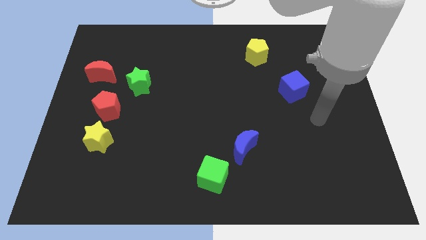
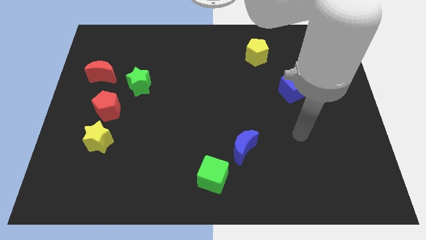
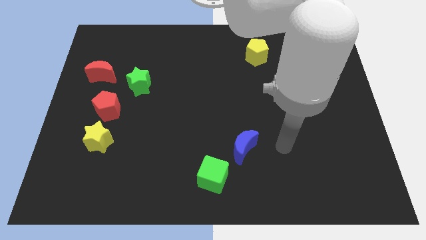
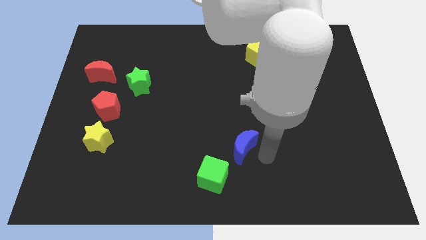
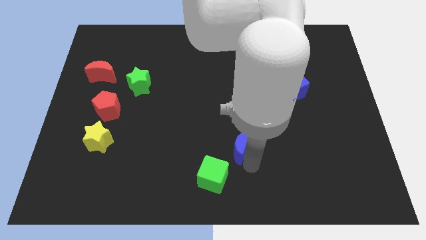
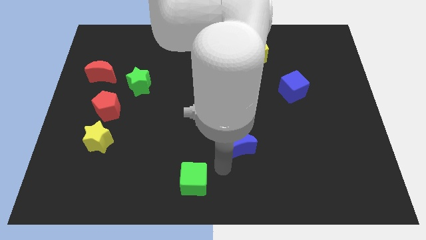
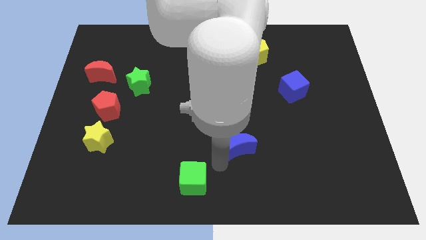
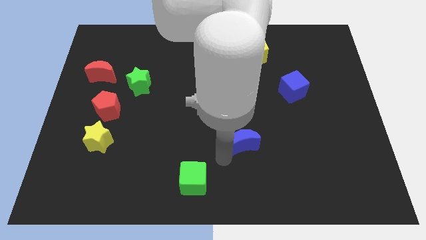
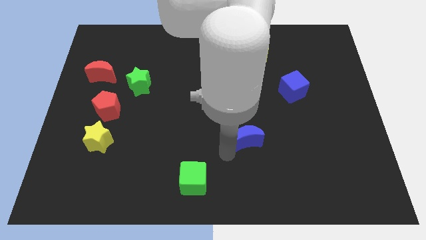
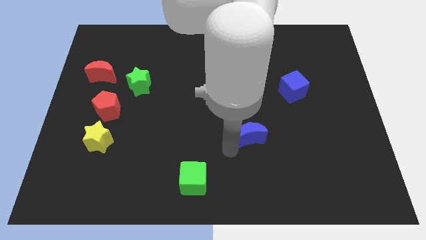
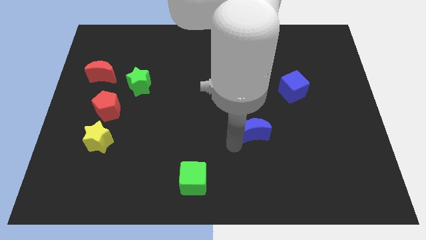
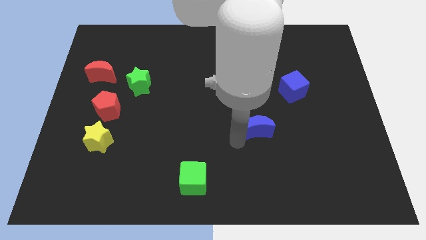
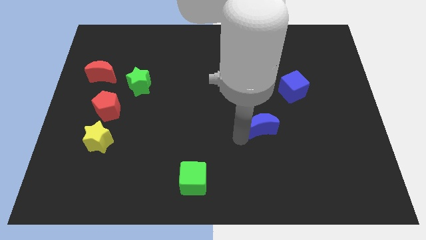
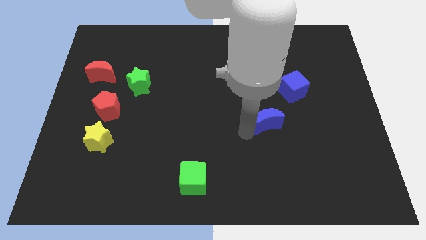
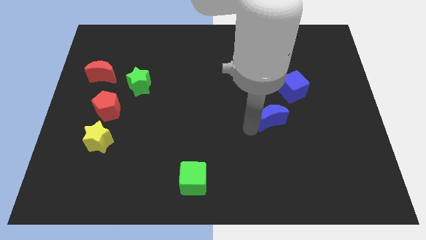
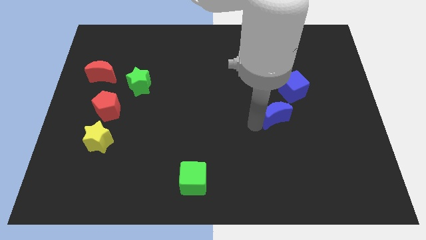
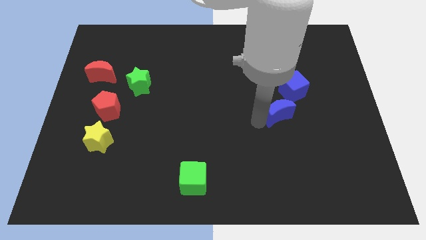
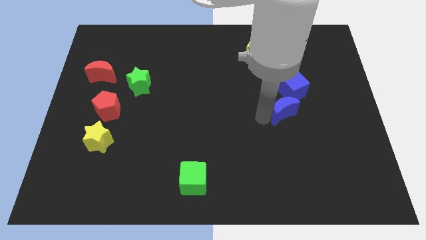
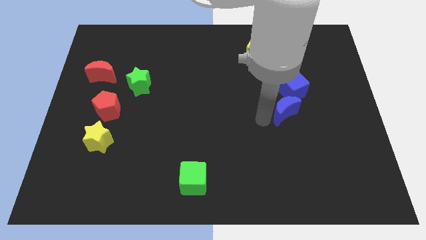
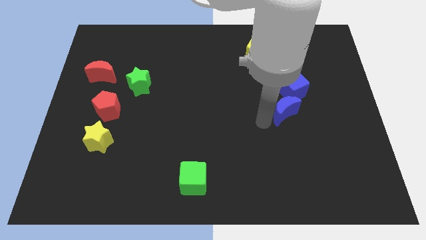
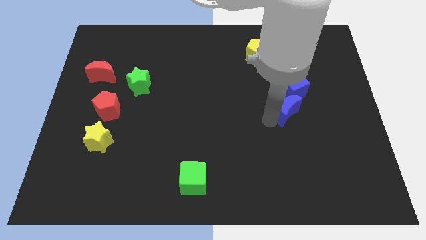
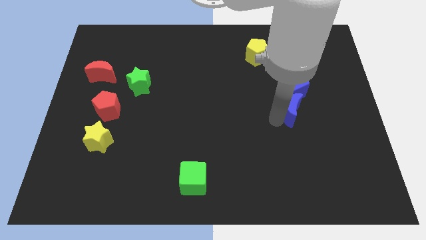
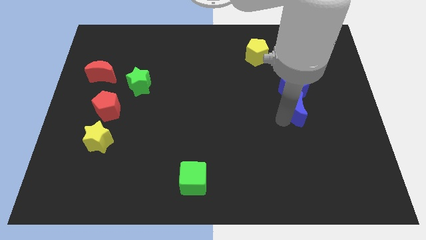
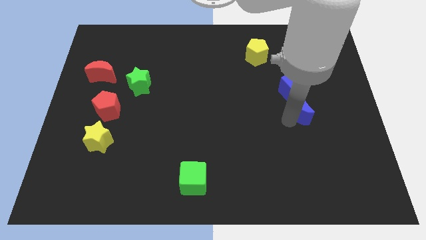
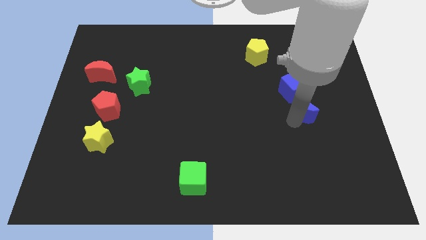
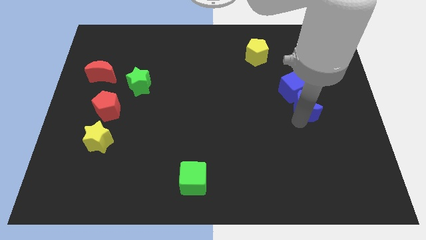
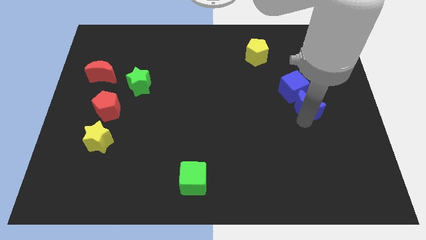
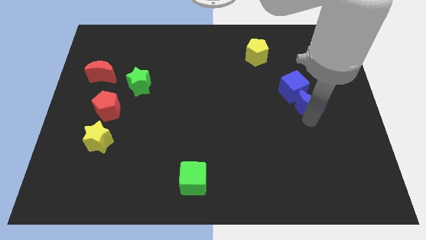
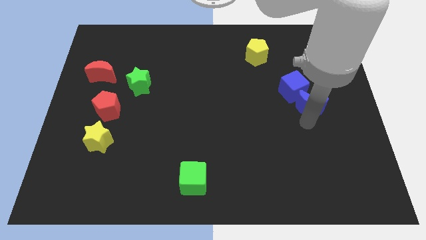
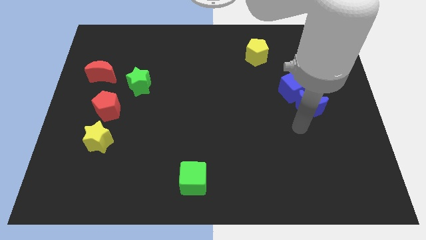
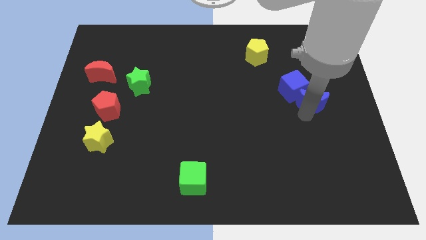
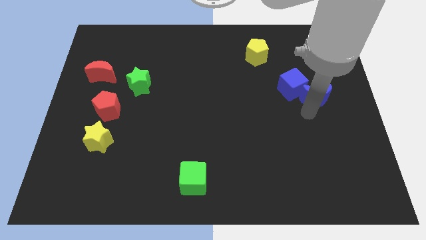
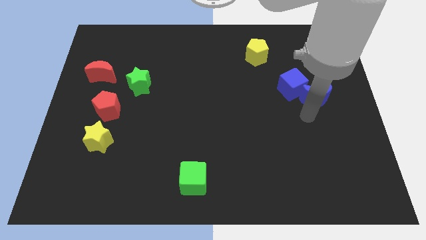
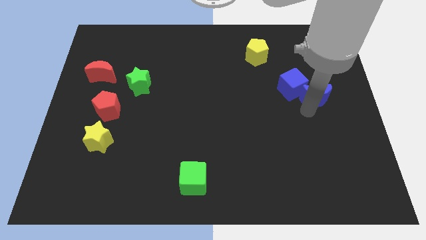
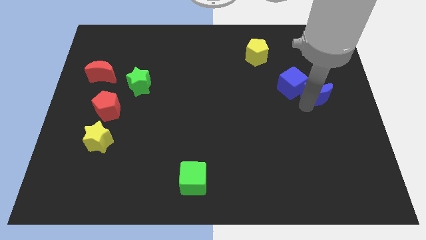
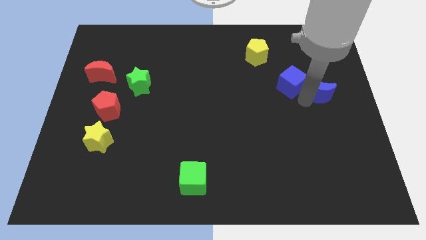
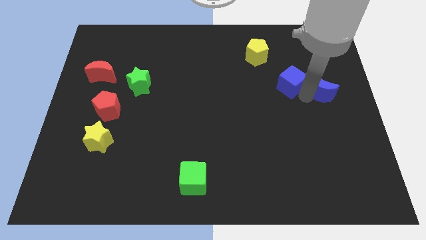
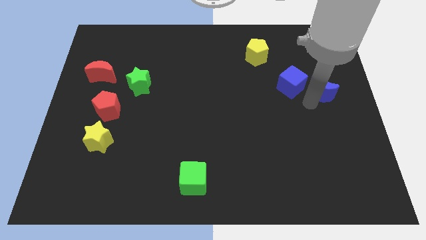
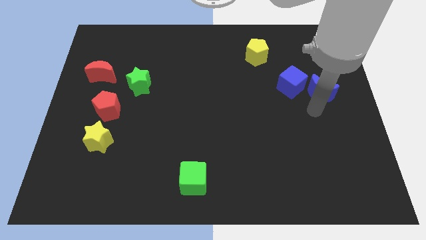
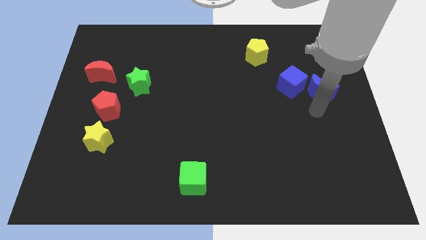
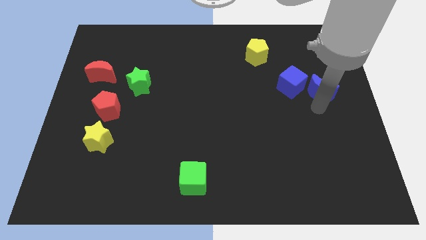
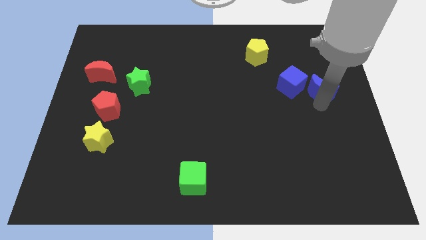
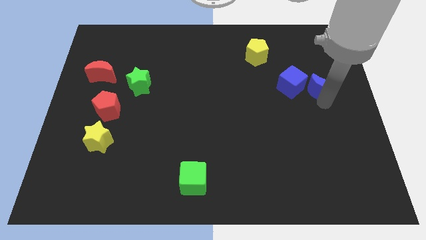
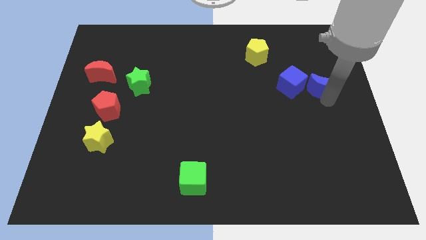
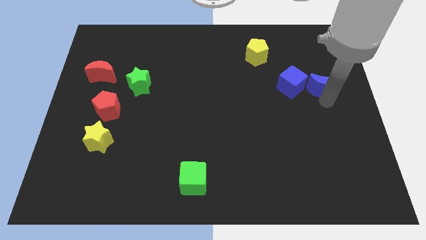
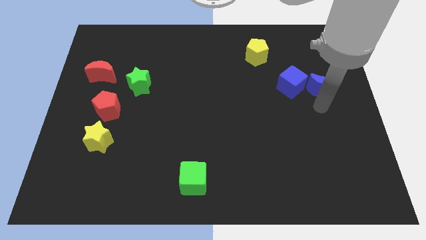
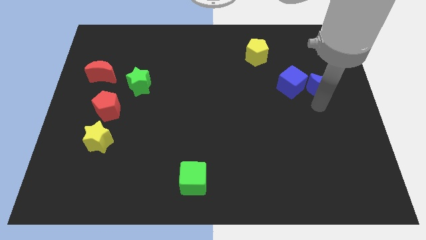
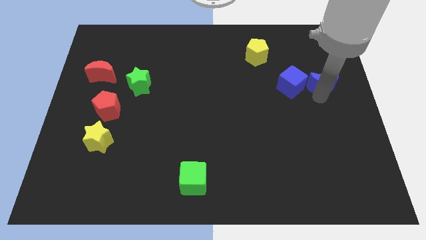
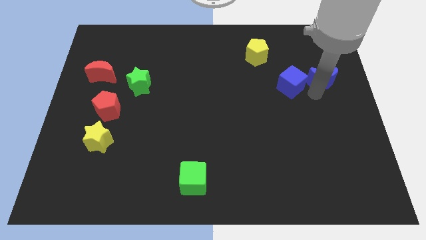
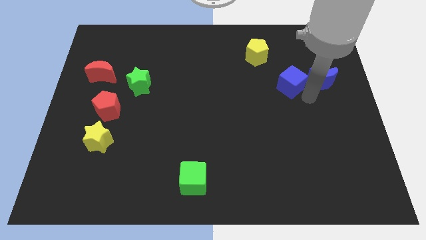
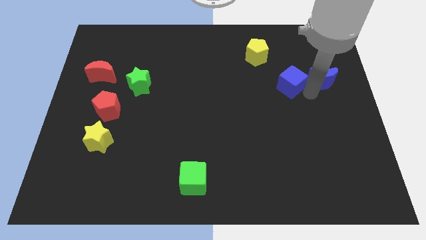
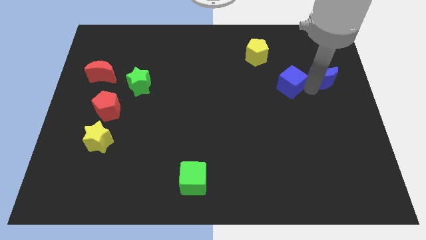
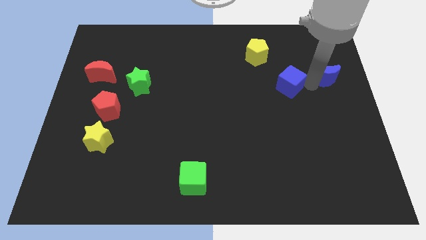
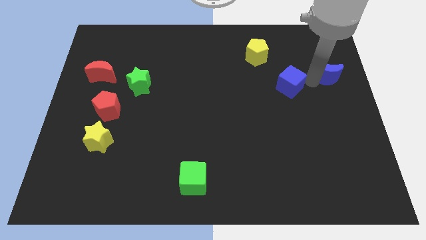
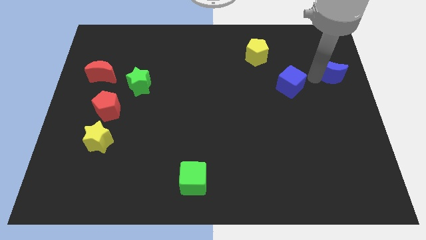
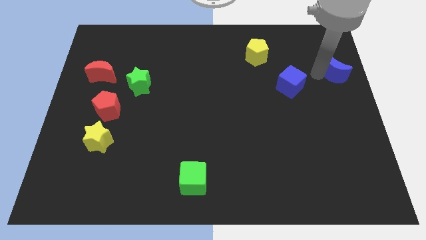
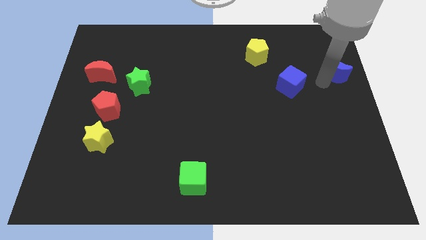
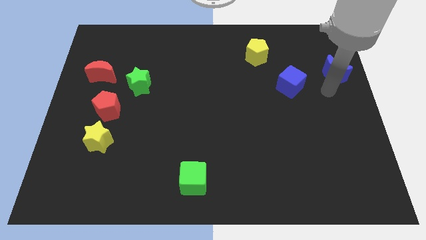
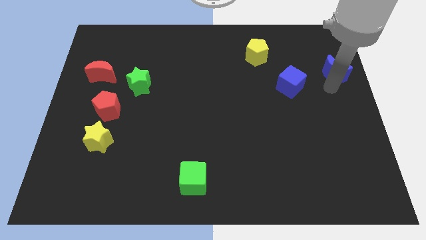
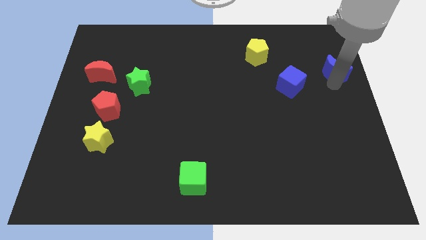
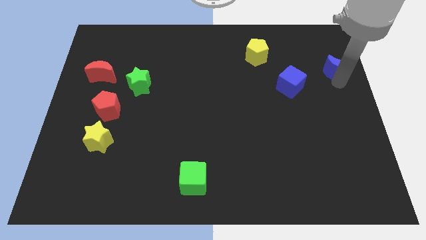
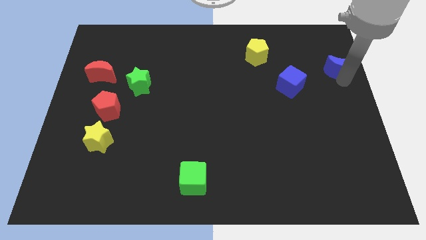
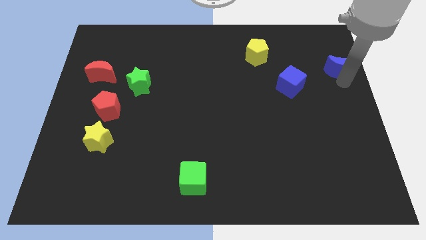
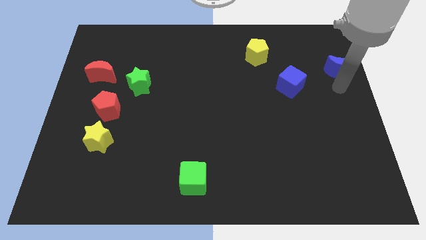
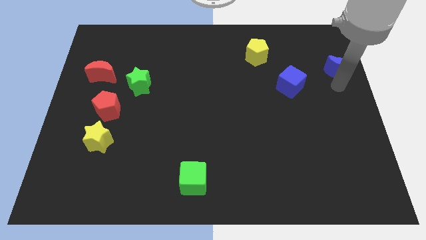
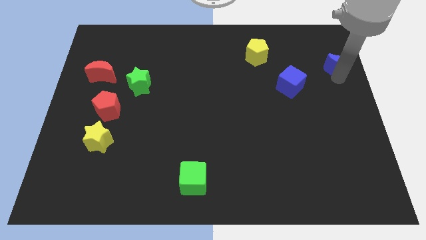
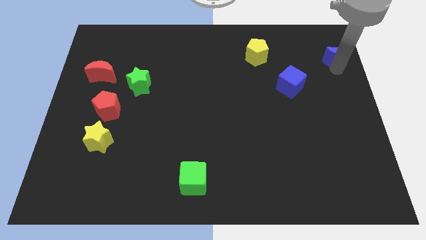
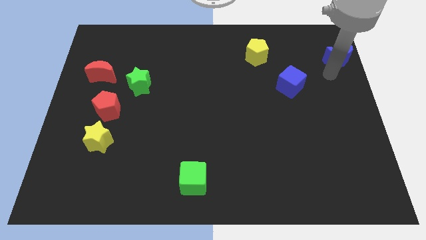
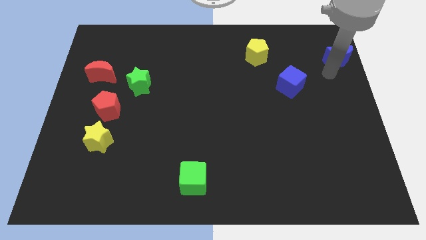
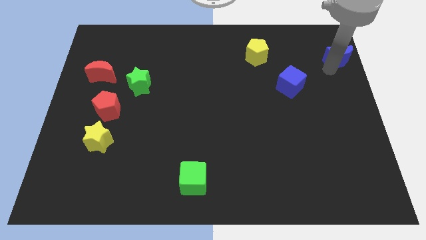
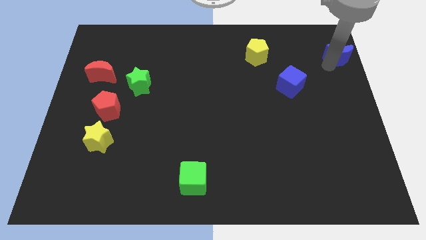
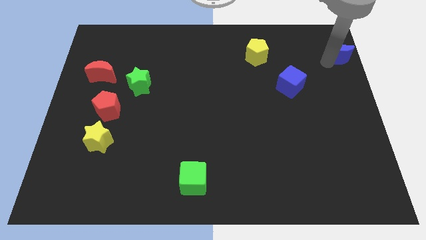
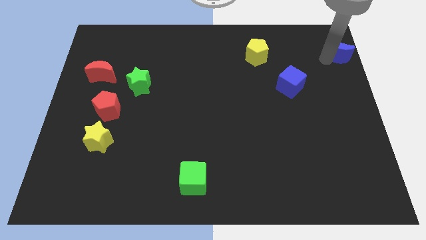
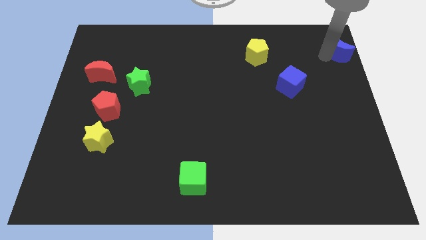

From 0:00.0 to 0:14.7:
move the blue moon to the top right
